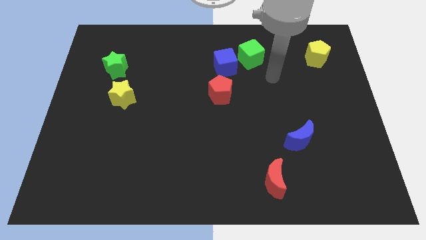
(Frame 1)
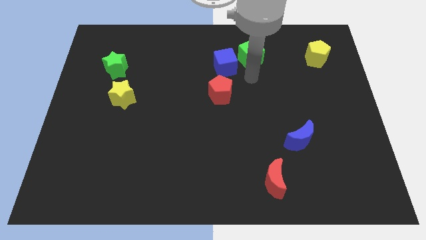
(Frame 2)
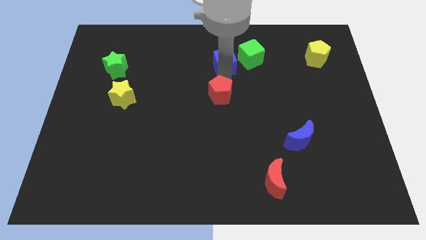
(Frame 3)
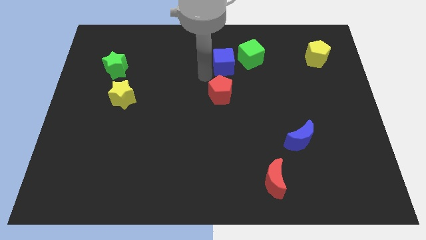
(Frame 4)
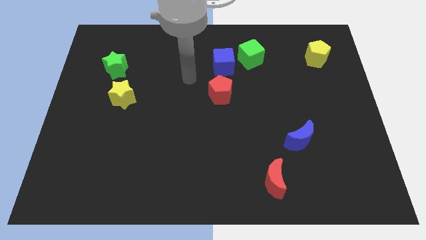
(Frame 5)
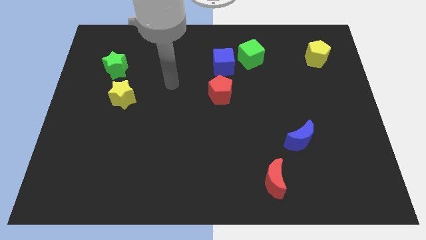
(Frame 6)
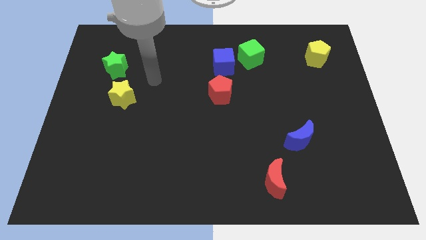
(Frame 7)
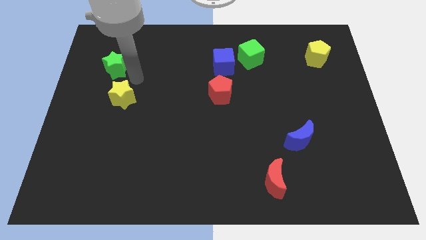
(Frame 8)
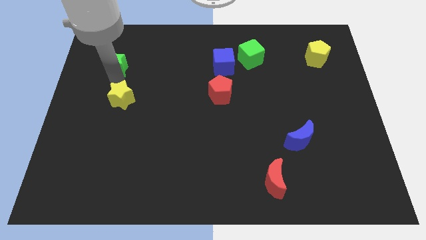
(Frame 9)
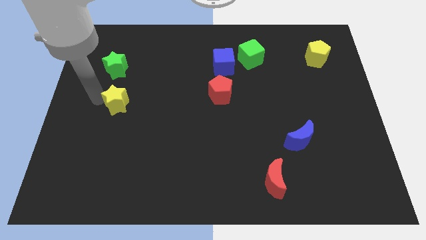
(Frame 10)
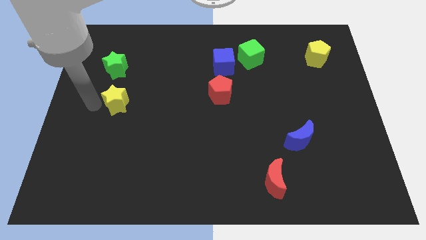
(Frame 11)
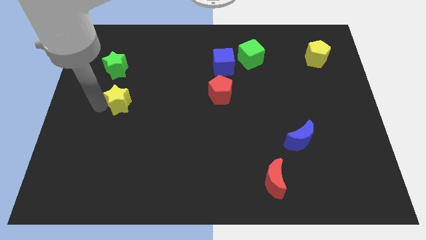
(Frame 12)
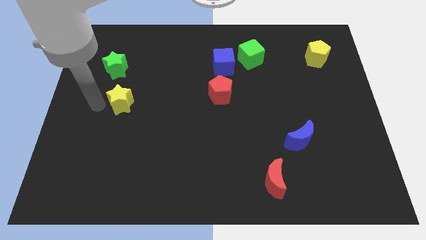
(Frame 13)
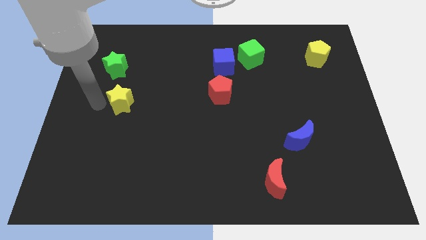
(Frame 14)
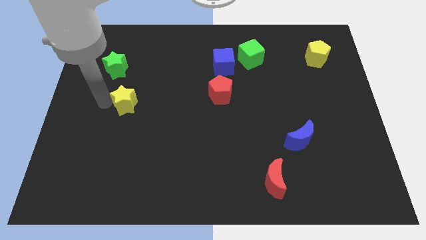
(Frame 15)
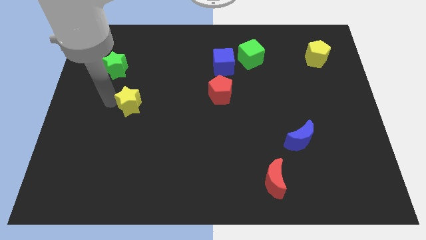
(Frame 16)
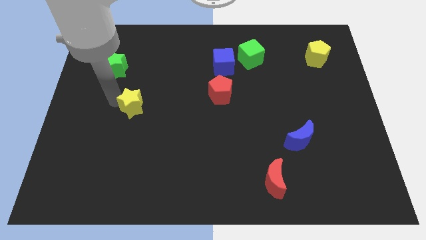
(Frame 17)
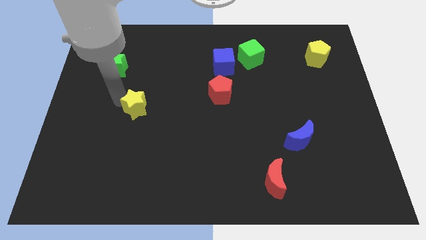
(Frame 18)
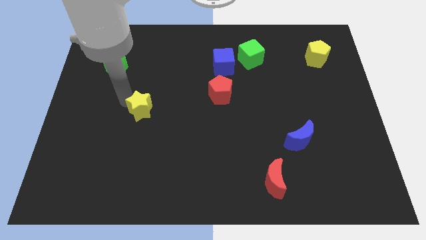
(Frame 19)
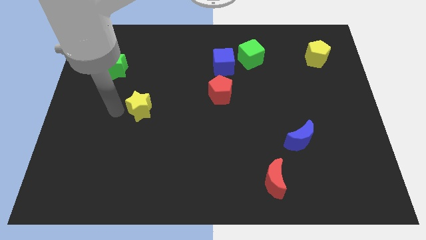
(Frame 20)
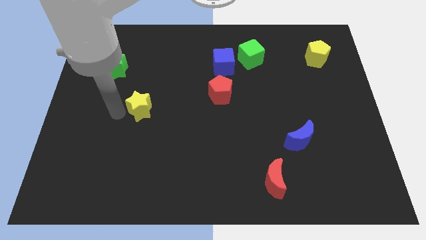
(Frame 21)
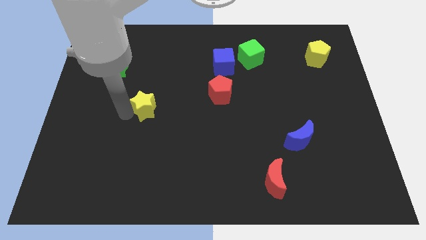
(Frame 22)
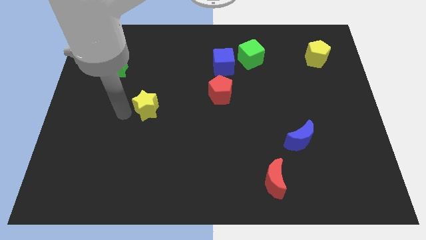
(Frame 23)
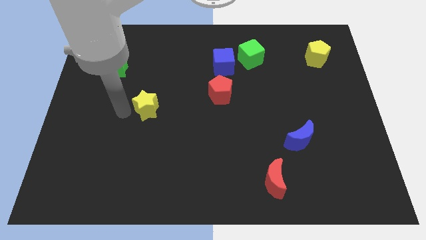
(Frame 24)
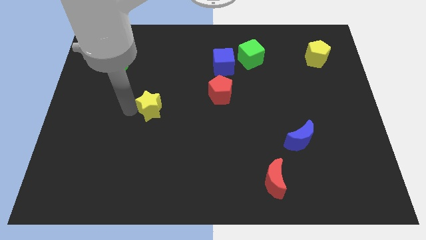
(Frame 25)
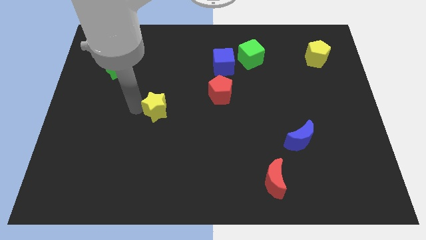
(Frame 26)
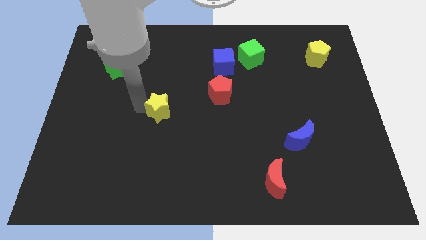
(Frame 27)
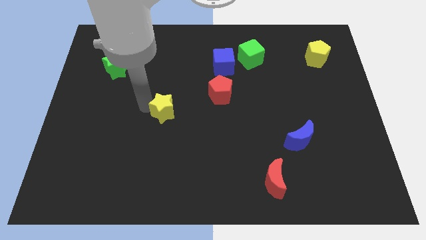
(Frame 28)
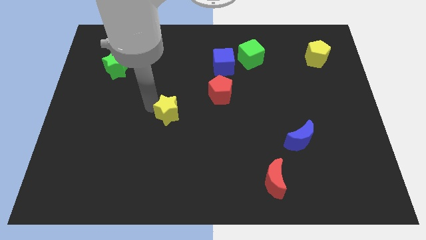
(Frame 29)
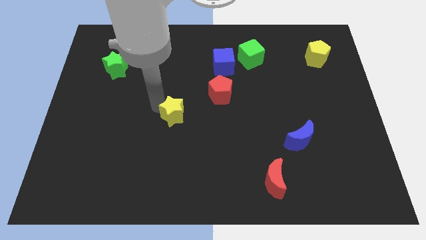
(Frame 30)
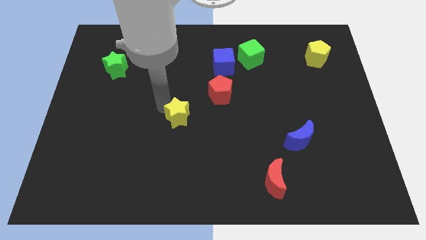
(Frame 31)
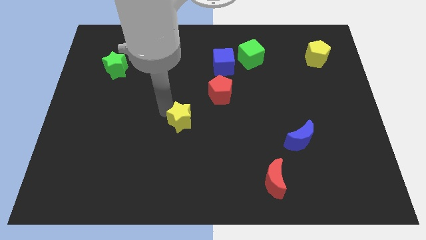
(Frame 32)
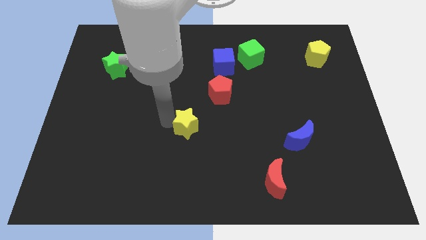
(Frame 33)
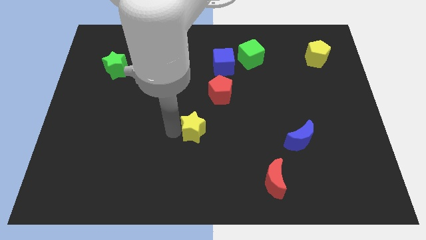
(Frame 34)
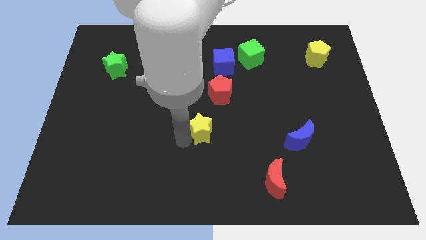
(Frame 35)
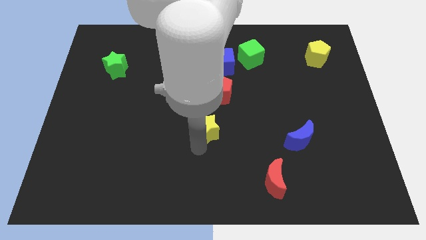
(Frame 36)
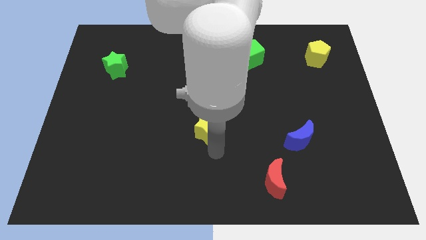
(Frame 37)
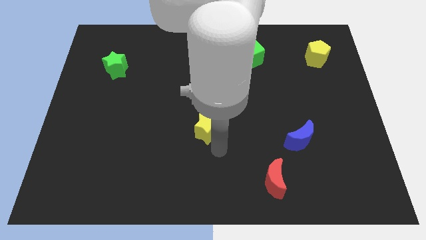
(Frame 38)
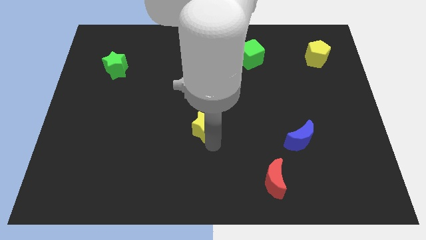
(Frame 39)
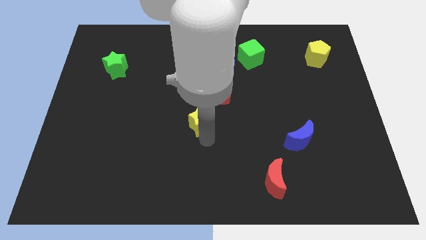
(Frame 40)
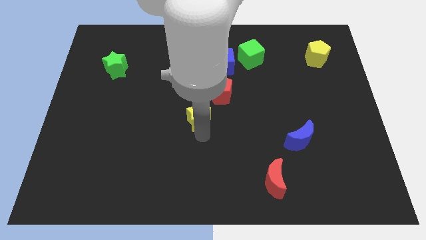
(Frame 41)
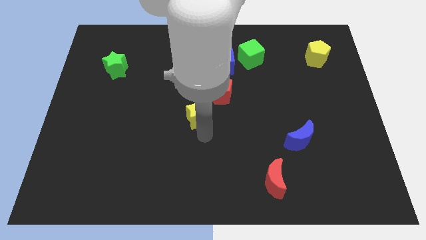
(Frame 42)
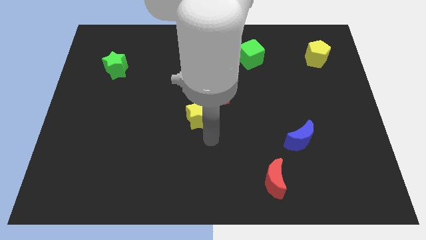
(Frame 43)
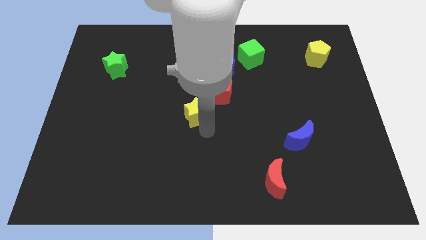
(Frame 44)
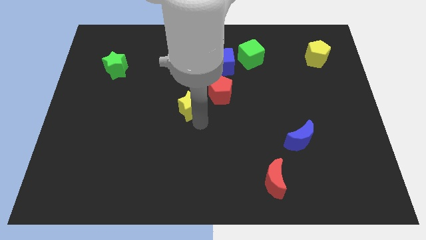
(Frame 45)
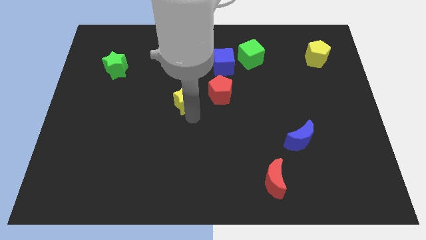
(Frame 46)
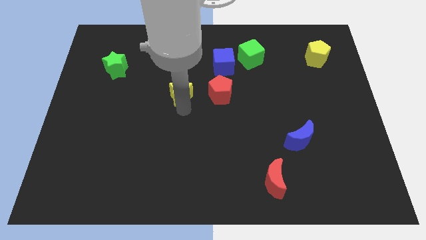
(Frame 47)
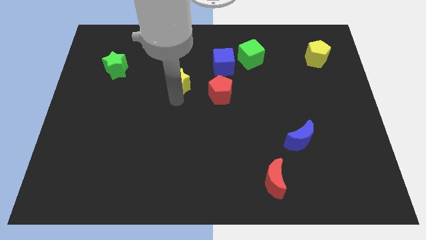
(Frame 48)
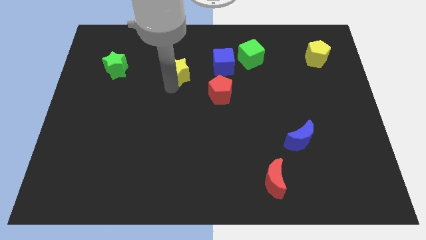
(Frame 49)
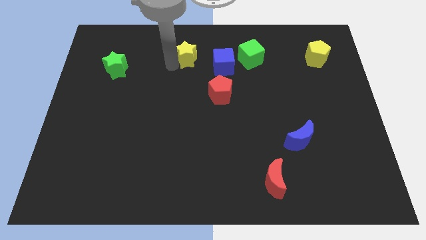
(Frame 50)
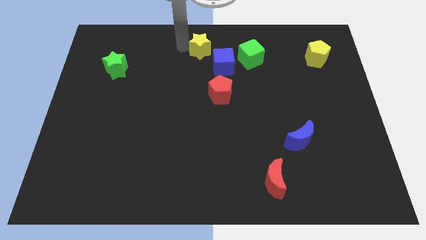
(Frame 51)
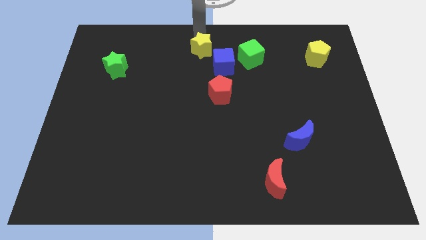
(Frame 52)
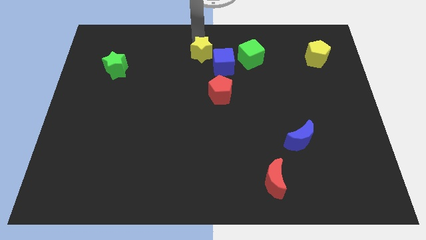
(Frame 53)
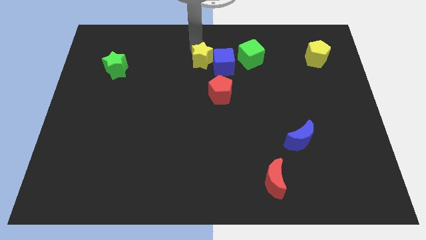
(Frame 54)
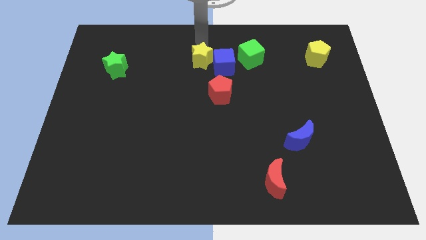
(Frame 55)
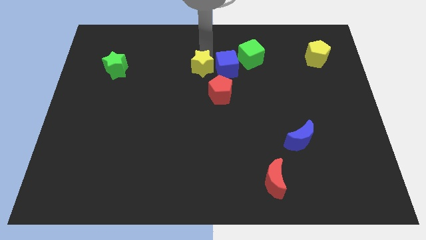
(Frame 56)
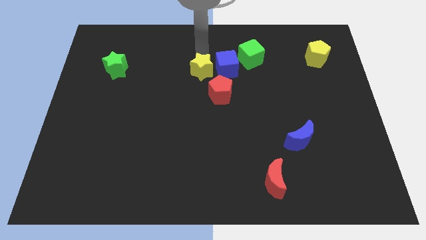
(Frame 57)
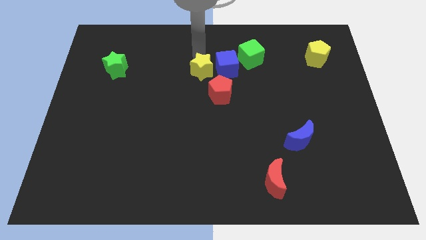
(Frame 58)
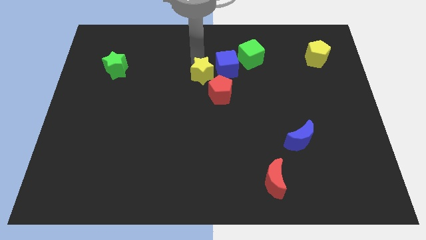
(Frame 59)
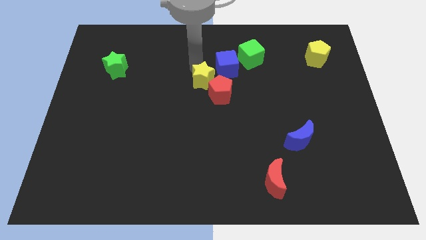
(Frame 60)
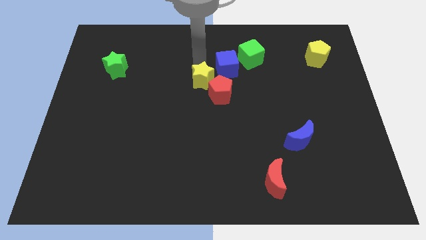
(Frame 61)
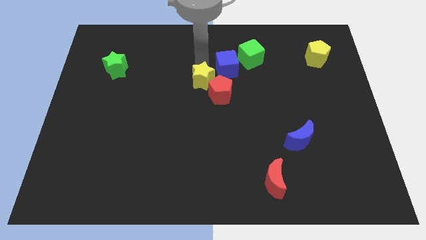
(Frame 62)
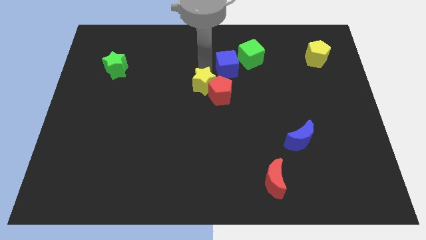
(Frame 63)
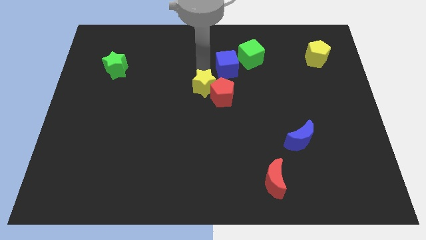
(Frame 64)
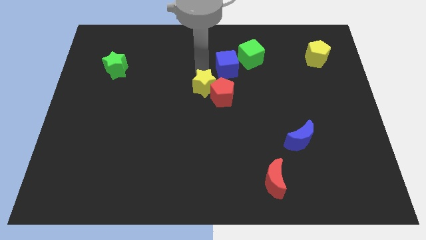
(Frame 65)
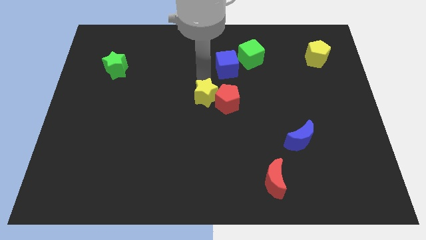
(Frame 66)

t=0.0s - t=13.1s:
slide the yellow star right

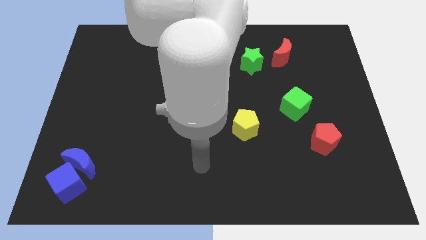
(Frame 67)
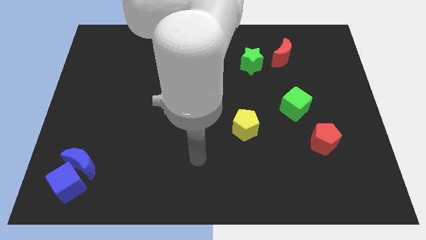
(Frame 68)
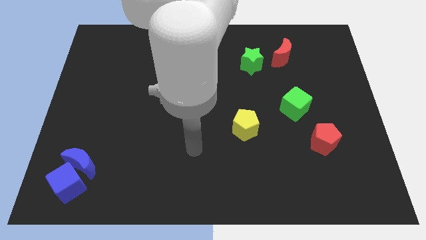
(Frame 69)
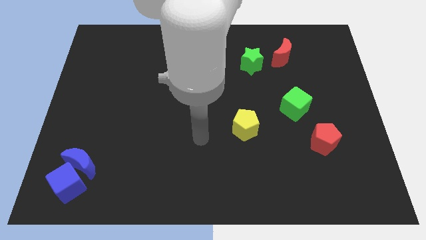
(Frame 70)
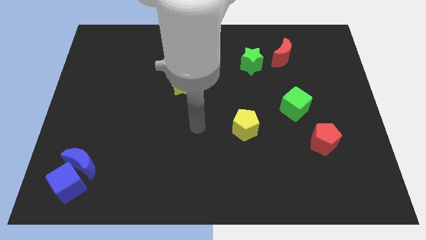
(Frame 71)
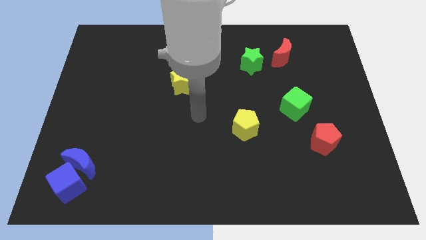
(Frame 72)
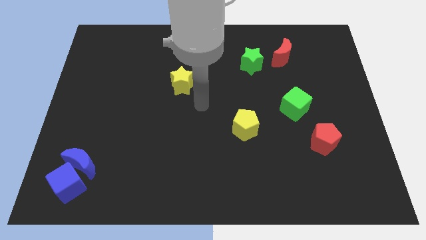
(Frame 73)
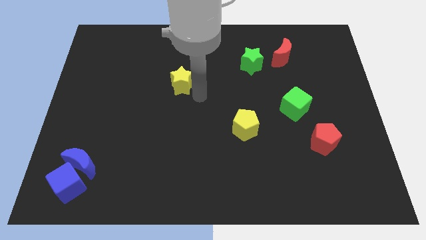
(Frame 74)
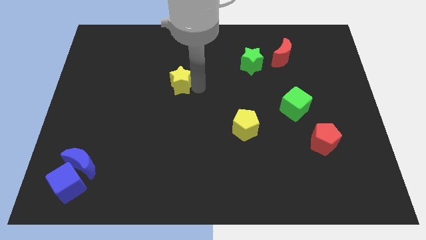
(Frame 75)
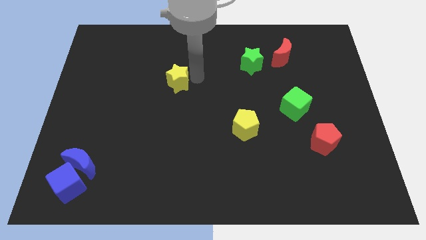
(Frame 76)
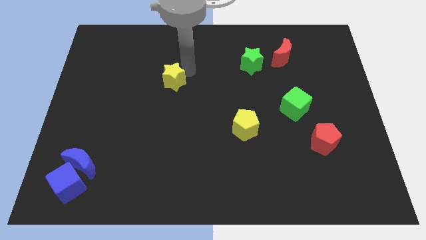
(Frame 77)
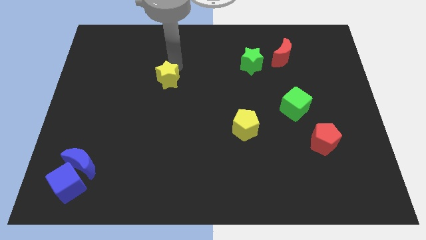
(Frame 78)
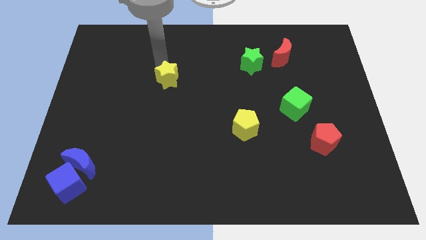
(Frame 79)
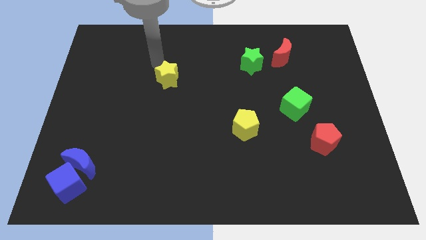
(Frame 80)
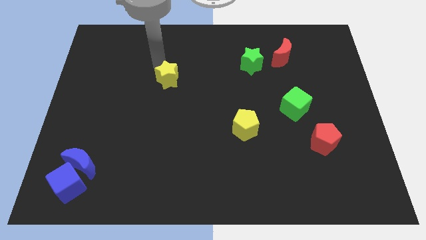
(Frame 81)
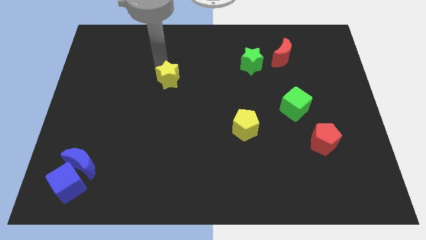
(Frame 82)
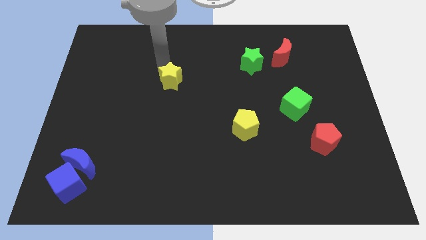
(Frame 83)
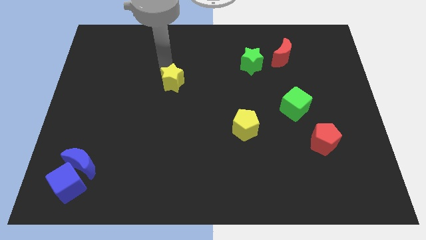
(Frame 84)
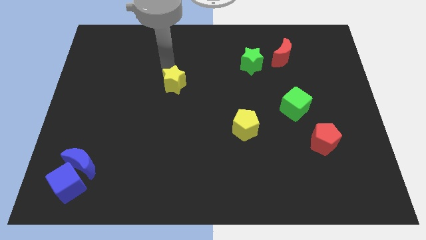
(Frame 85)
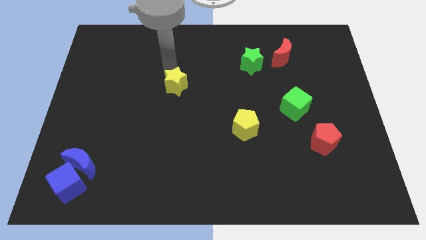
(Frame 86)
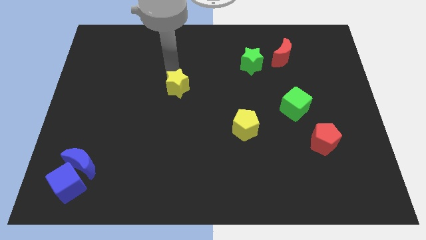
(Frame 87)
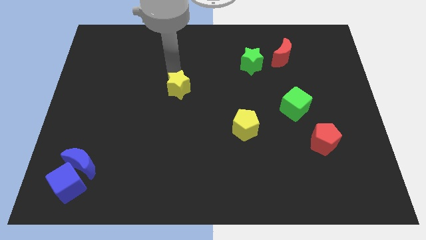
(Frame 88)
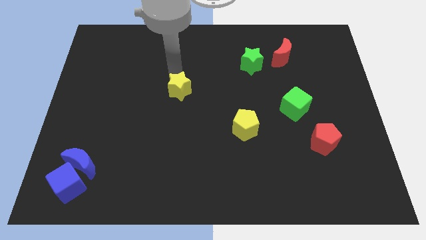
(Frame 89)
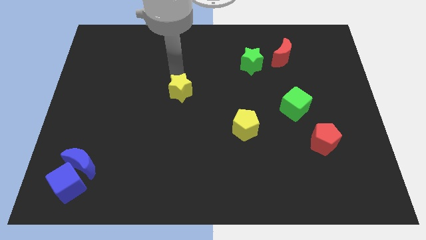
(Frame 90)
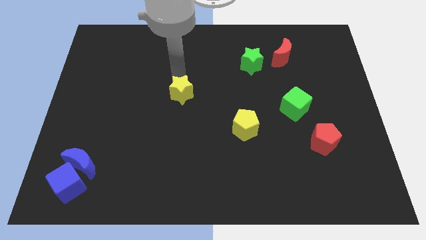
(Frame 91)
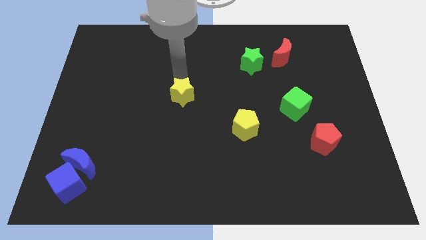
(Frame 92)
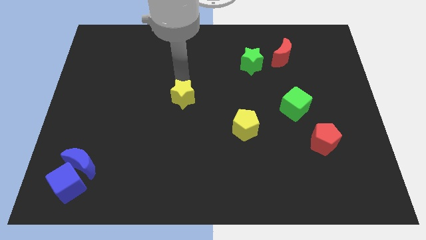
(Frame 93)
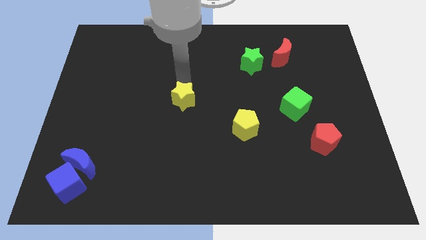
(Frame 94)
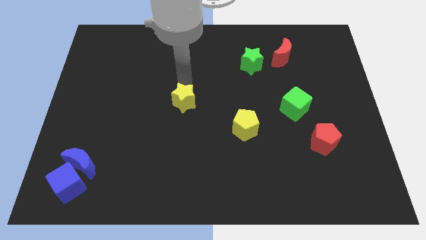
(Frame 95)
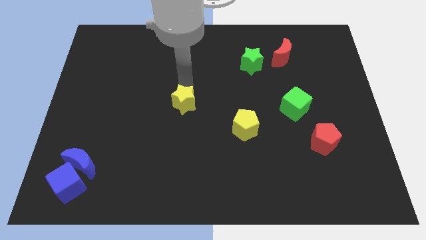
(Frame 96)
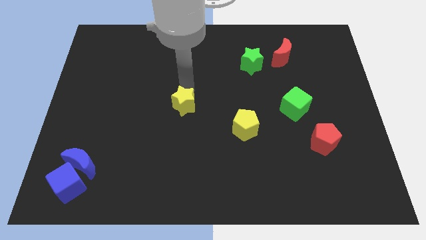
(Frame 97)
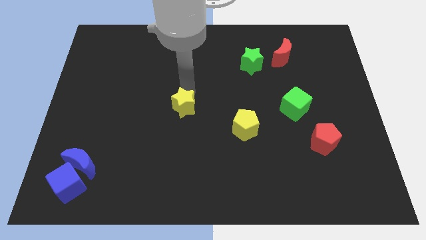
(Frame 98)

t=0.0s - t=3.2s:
slide the yellow star down somewhat
